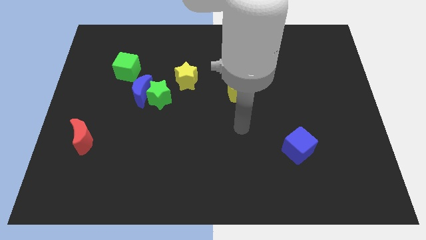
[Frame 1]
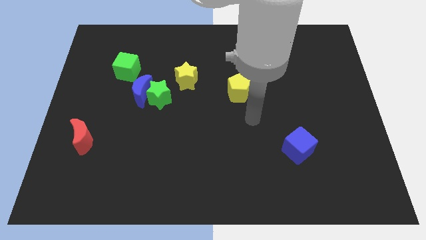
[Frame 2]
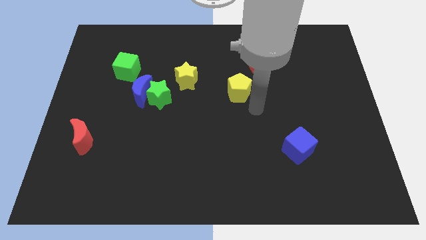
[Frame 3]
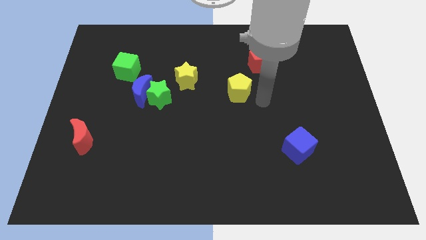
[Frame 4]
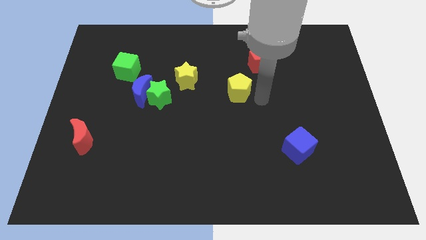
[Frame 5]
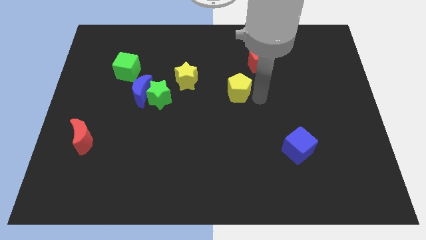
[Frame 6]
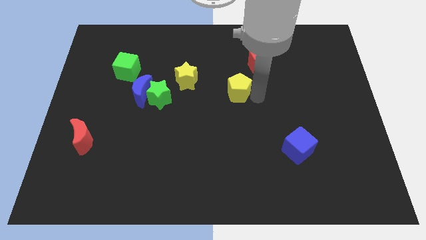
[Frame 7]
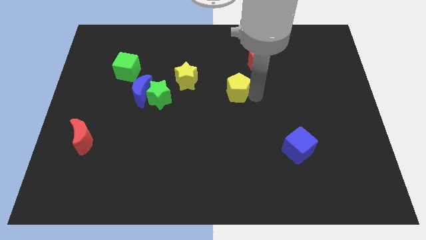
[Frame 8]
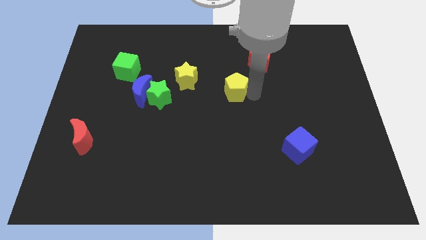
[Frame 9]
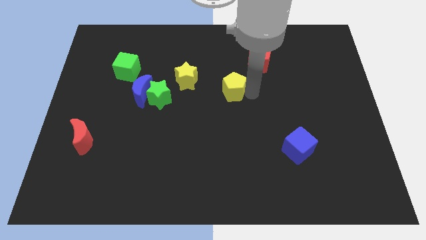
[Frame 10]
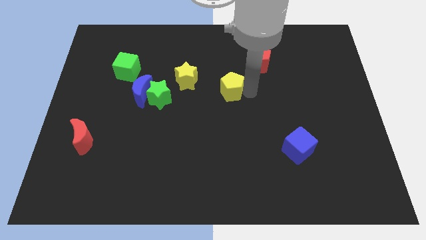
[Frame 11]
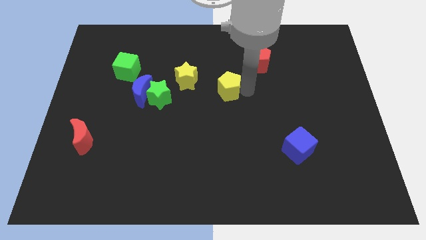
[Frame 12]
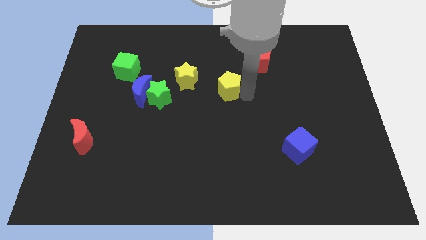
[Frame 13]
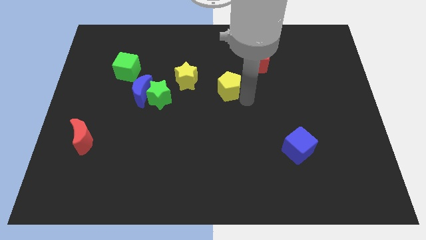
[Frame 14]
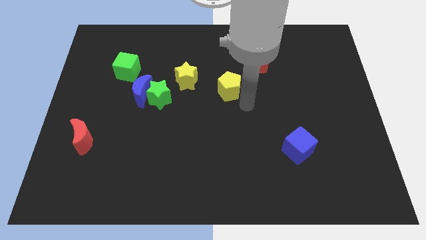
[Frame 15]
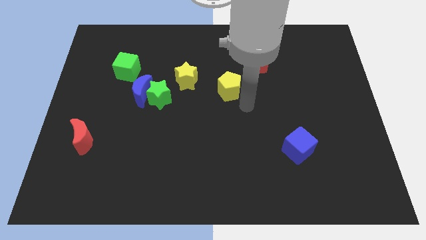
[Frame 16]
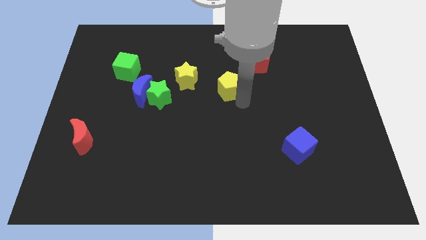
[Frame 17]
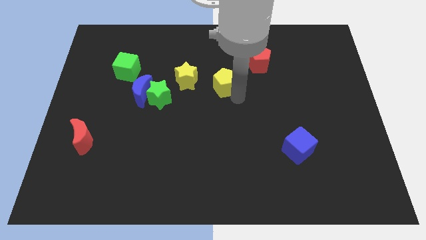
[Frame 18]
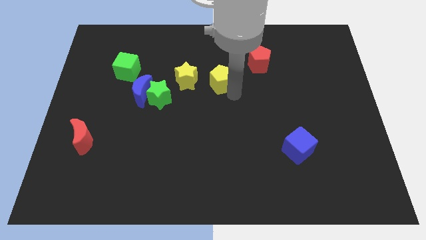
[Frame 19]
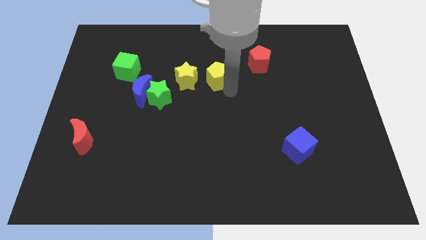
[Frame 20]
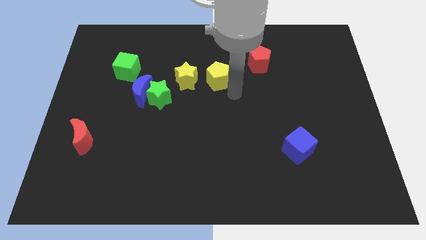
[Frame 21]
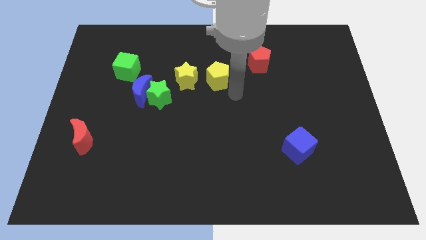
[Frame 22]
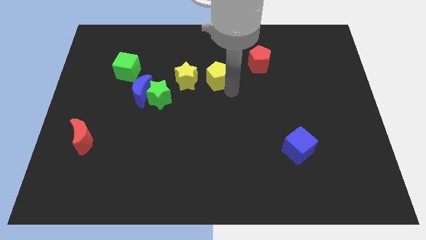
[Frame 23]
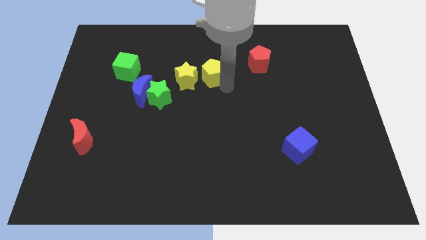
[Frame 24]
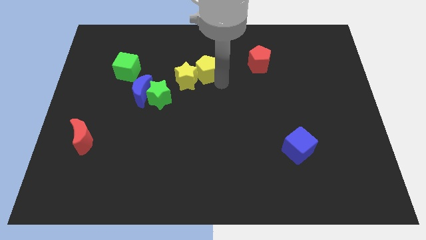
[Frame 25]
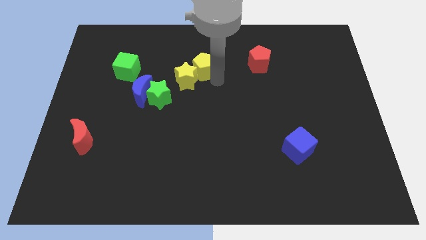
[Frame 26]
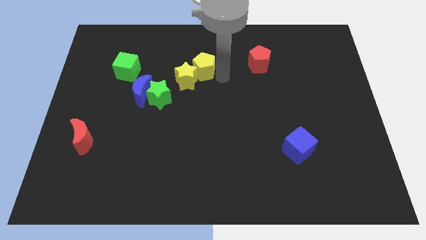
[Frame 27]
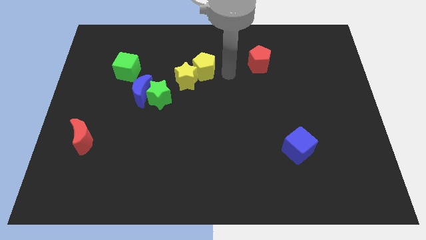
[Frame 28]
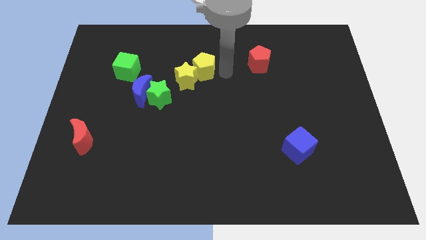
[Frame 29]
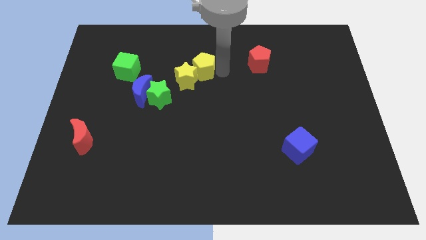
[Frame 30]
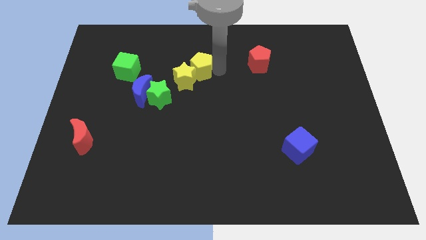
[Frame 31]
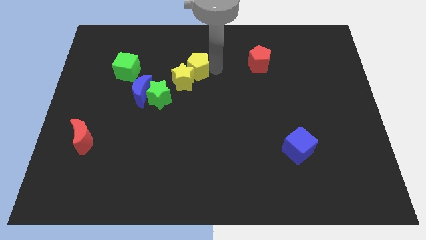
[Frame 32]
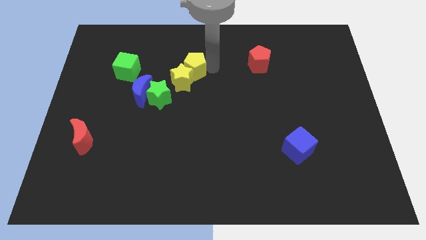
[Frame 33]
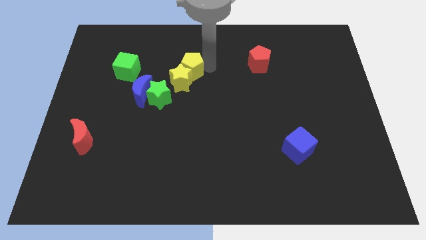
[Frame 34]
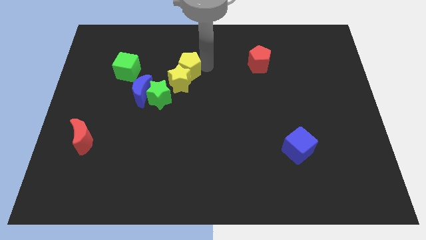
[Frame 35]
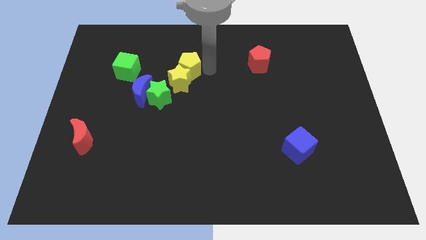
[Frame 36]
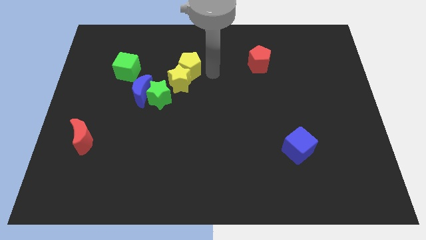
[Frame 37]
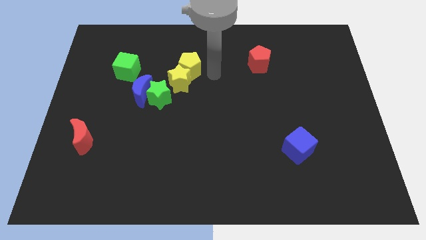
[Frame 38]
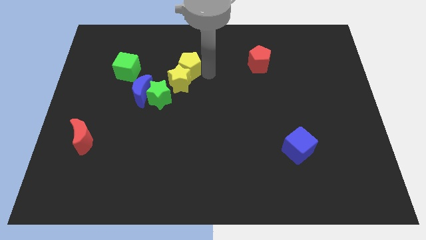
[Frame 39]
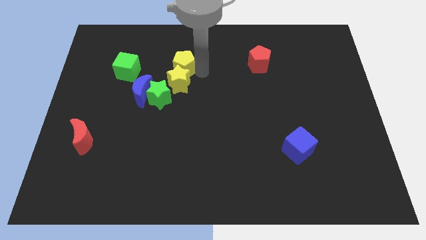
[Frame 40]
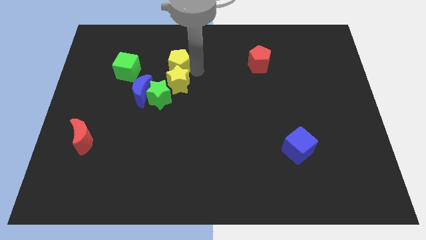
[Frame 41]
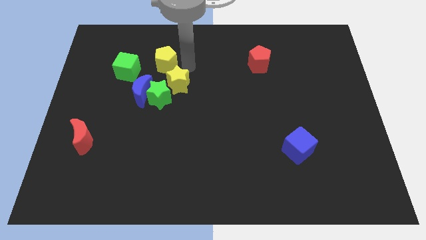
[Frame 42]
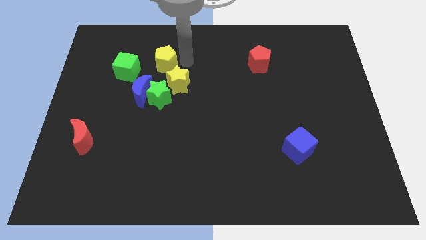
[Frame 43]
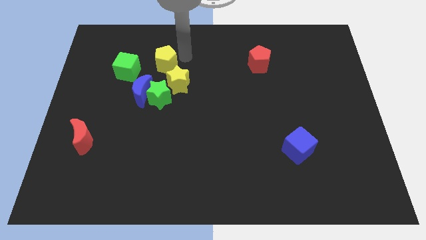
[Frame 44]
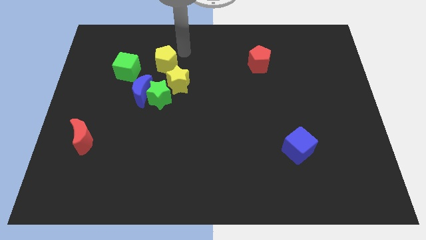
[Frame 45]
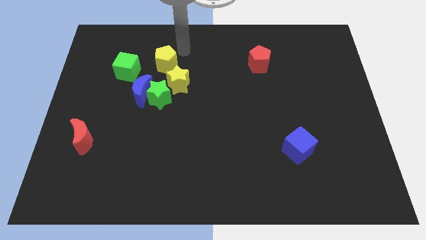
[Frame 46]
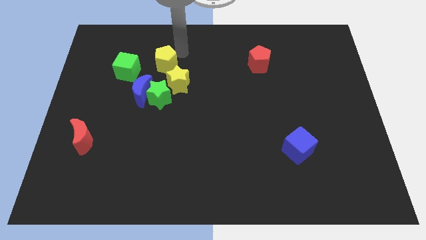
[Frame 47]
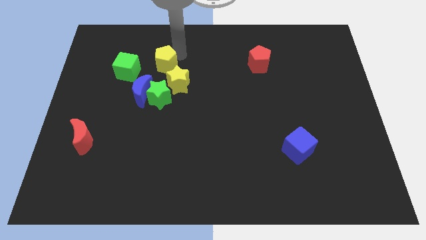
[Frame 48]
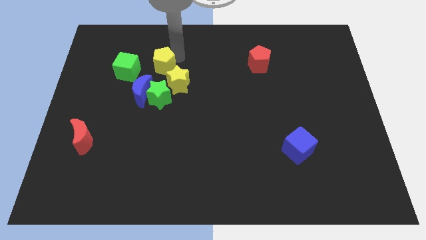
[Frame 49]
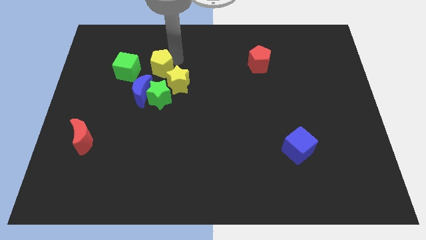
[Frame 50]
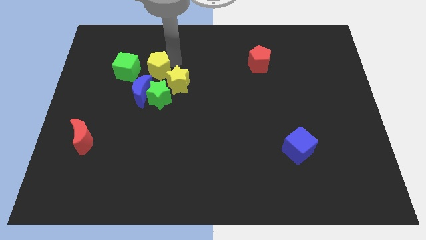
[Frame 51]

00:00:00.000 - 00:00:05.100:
slide the yellow pentagon just left of the yellow star

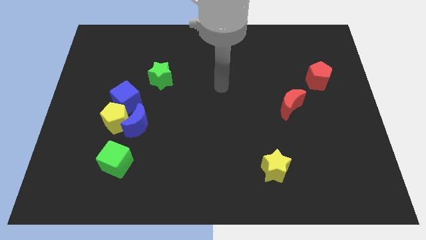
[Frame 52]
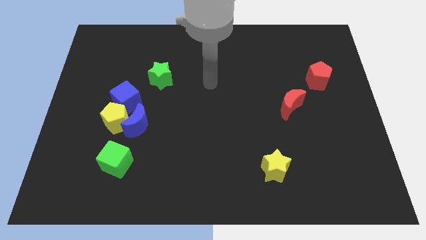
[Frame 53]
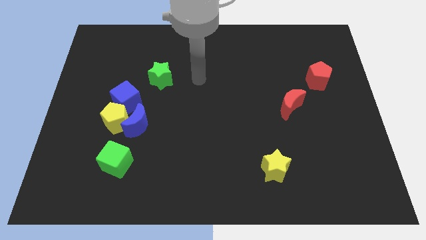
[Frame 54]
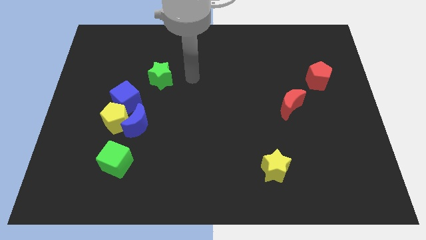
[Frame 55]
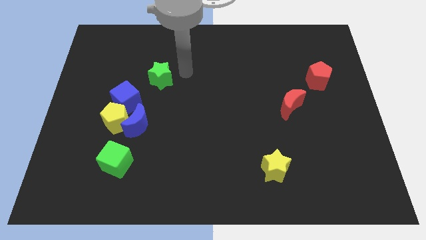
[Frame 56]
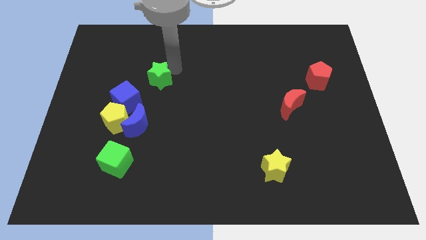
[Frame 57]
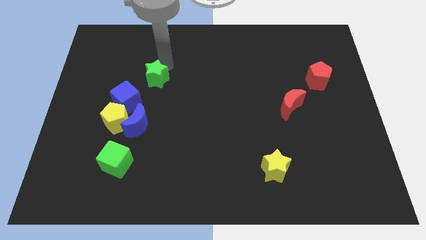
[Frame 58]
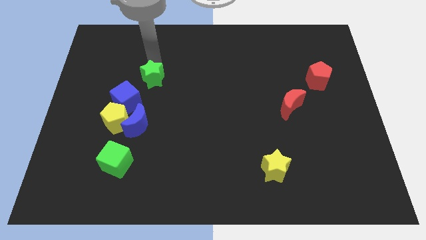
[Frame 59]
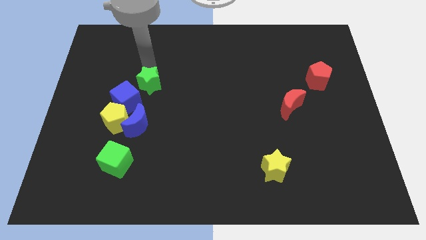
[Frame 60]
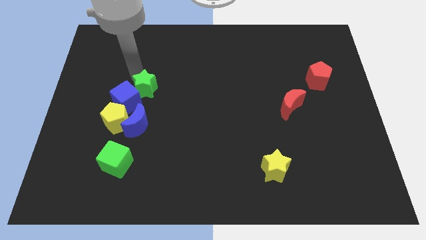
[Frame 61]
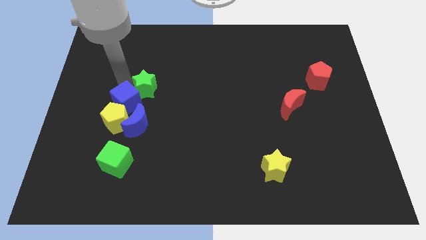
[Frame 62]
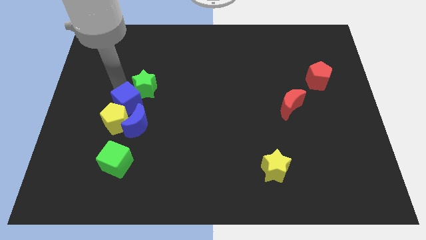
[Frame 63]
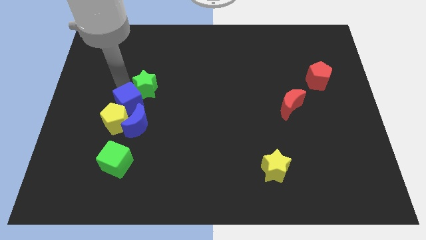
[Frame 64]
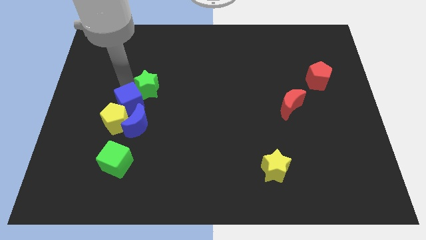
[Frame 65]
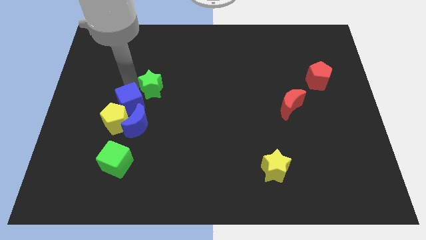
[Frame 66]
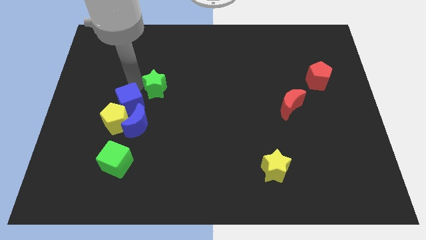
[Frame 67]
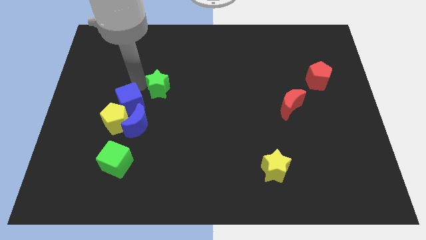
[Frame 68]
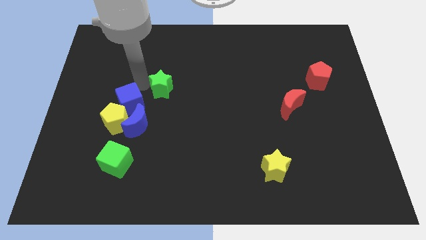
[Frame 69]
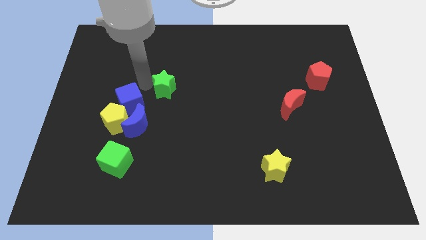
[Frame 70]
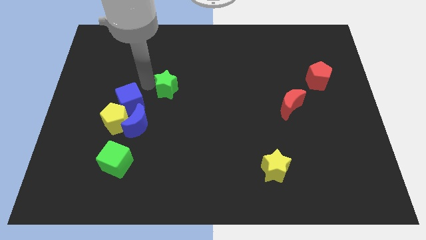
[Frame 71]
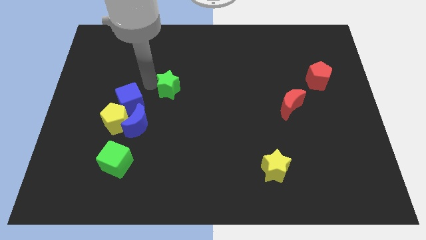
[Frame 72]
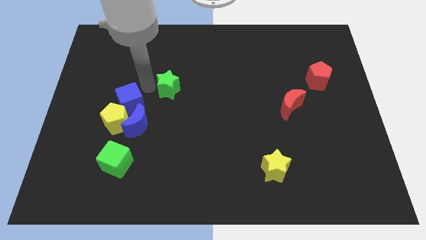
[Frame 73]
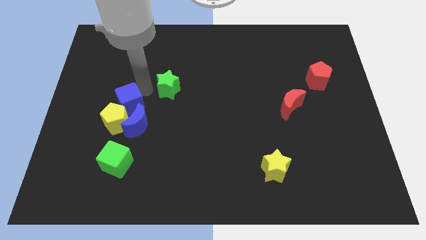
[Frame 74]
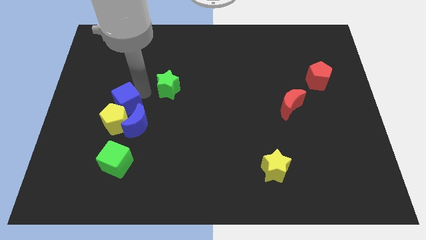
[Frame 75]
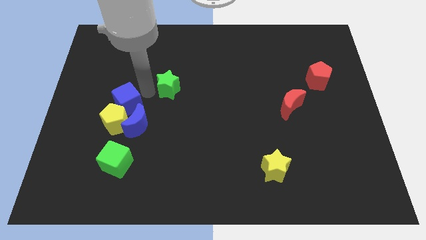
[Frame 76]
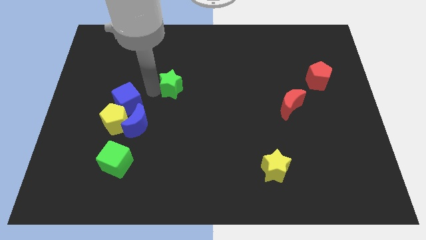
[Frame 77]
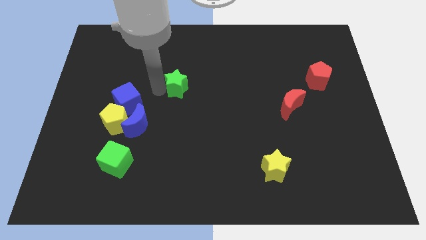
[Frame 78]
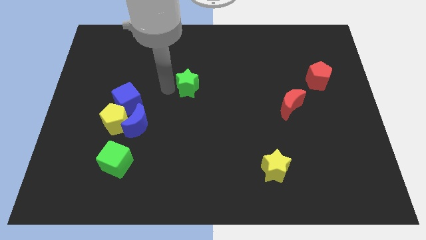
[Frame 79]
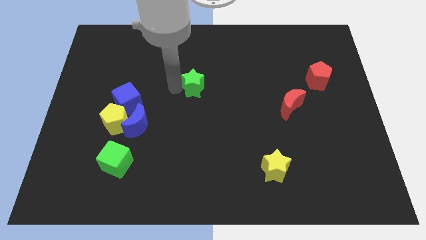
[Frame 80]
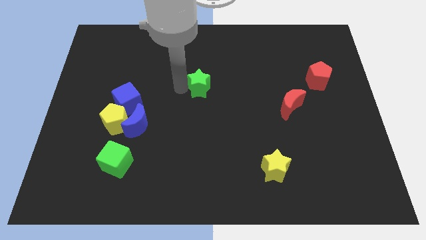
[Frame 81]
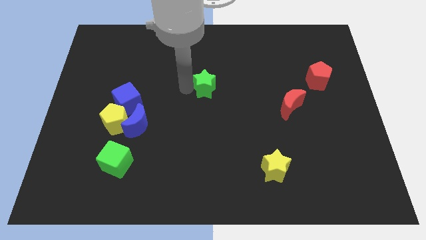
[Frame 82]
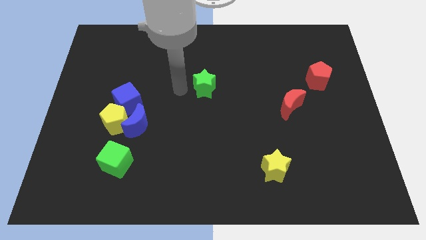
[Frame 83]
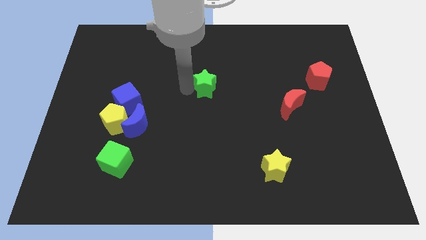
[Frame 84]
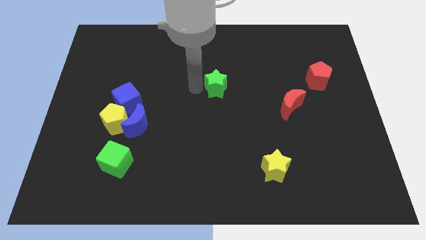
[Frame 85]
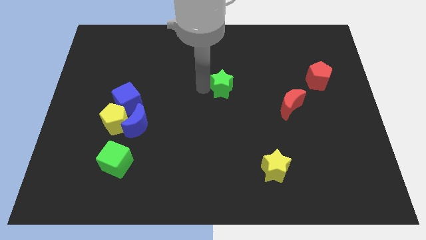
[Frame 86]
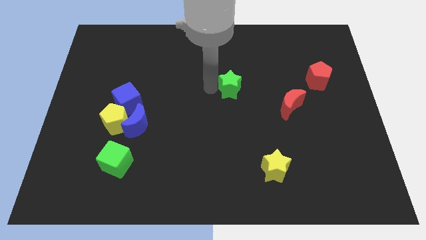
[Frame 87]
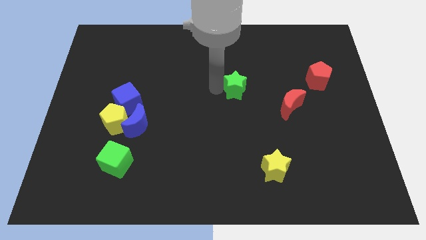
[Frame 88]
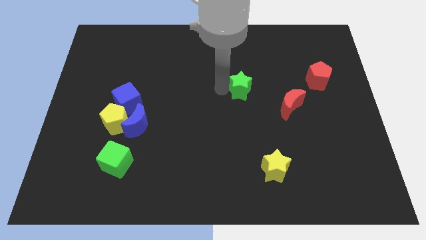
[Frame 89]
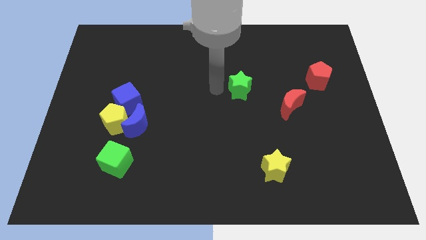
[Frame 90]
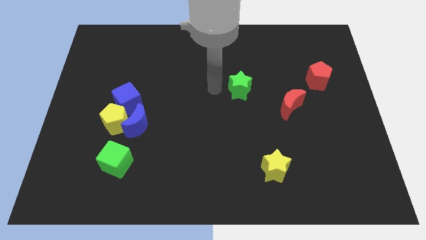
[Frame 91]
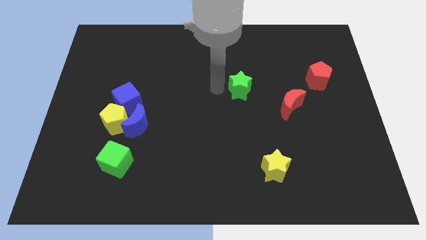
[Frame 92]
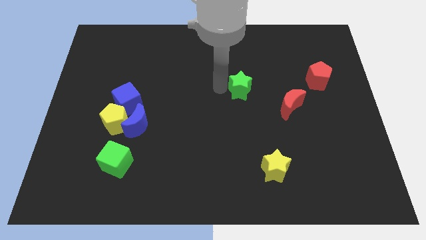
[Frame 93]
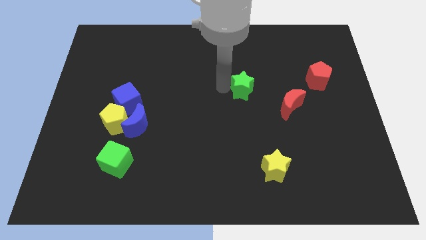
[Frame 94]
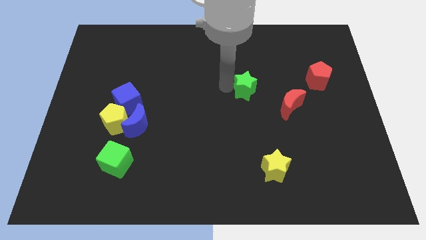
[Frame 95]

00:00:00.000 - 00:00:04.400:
put the green star diagonally up and to the left of the red moon
